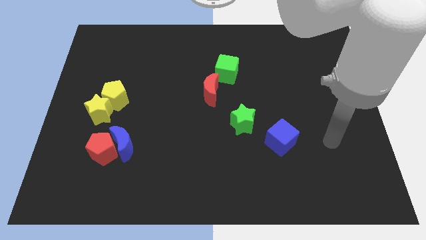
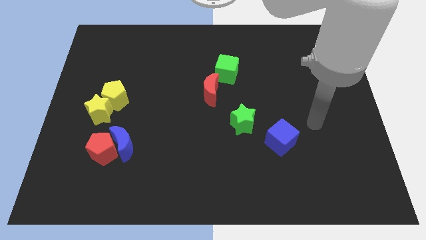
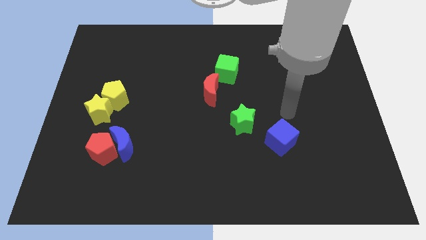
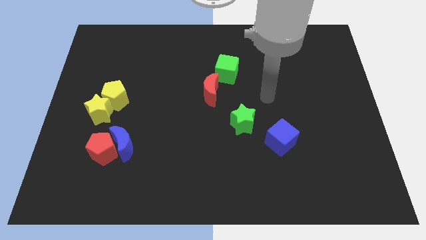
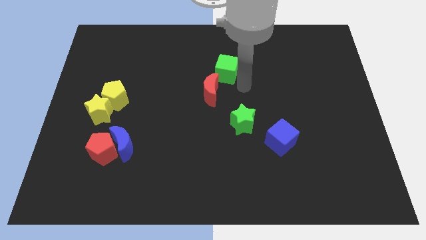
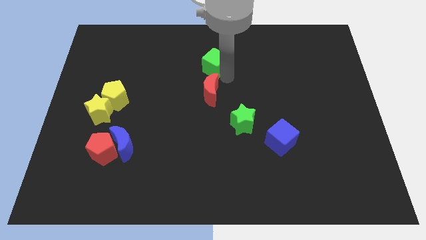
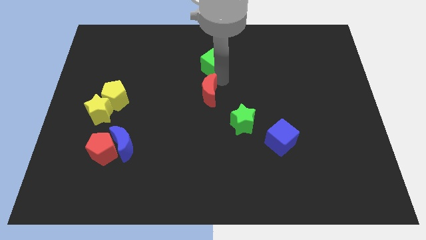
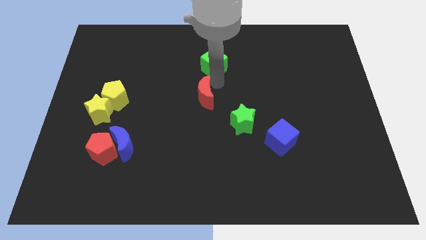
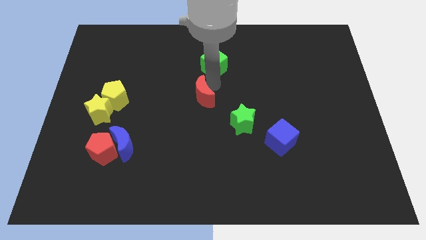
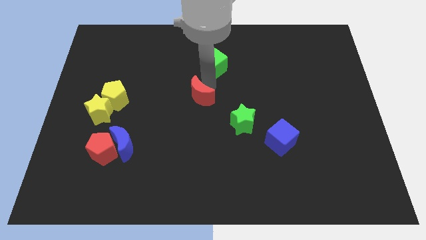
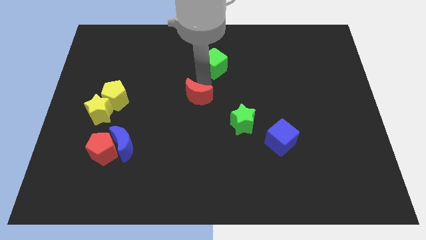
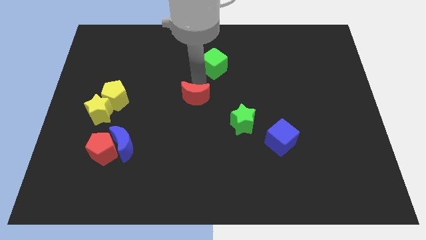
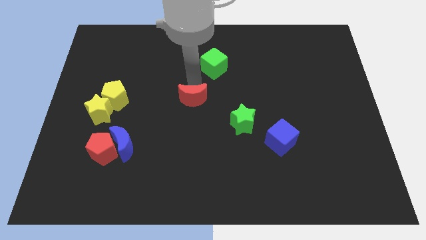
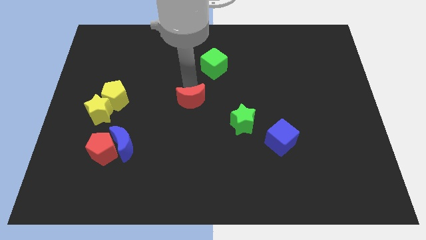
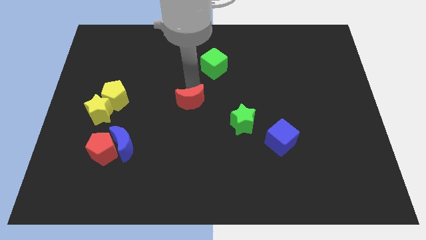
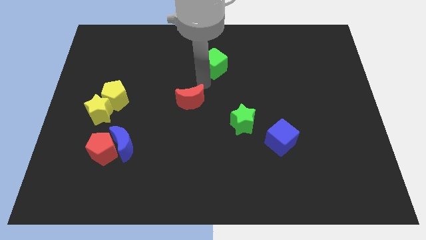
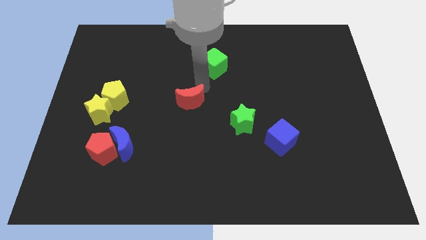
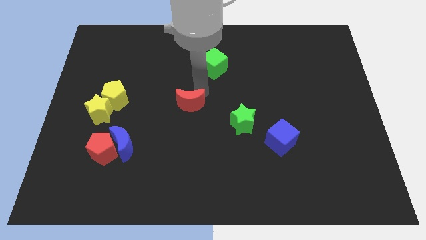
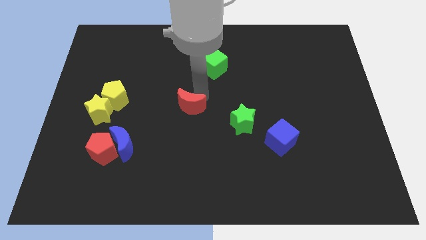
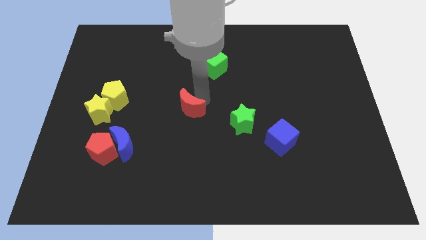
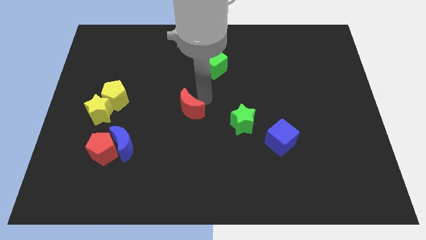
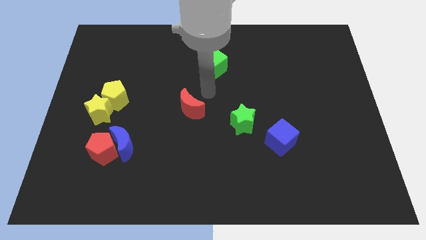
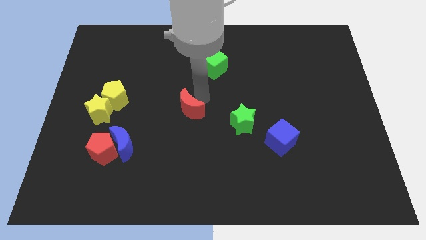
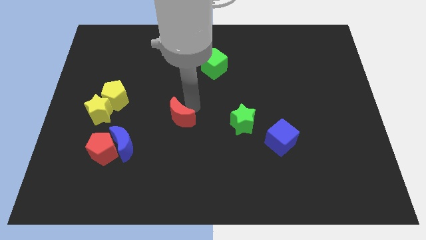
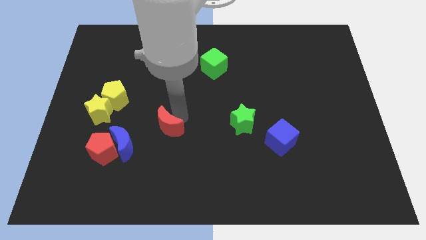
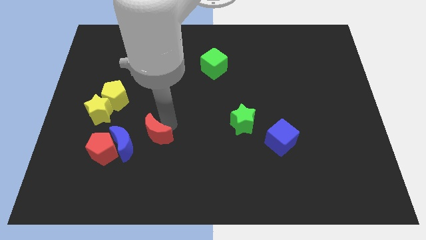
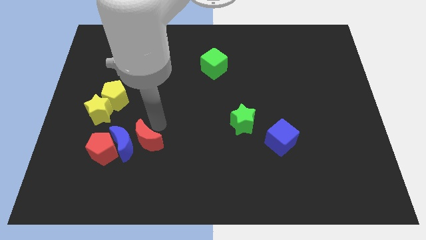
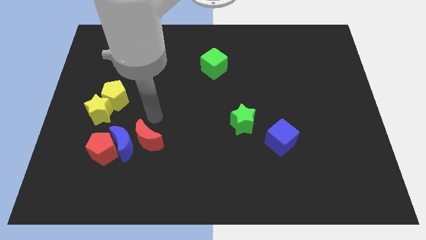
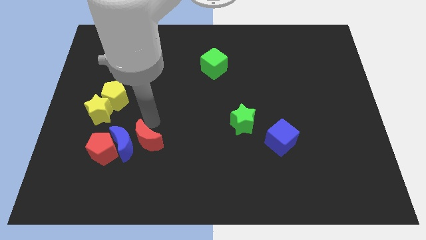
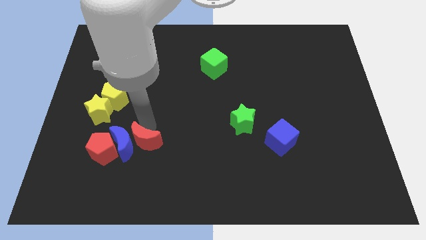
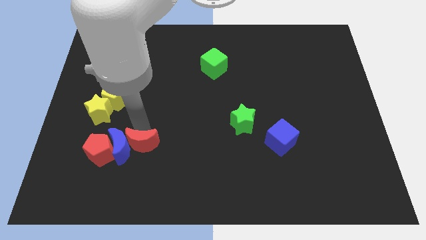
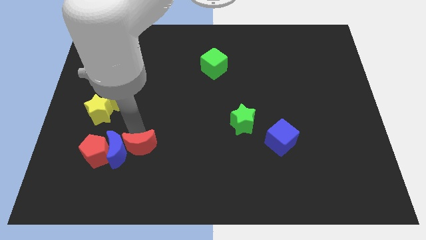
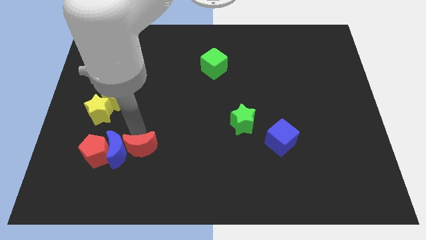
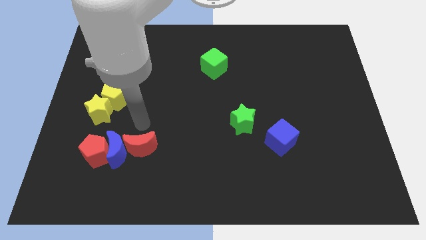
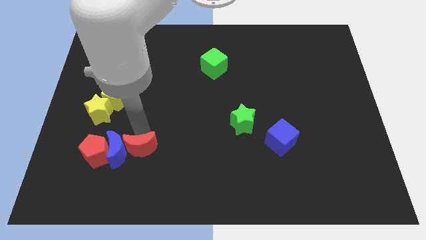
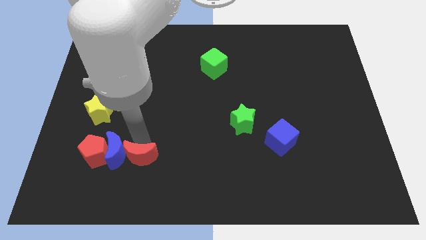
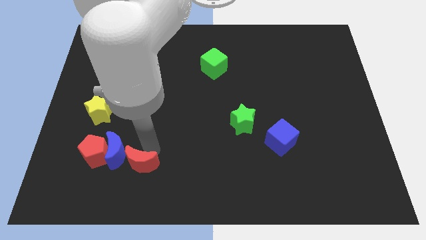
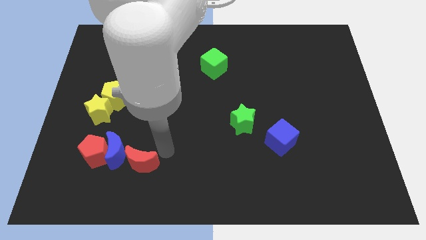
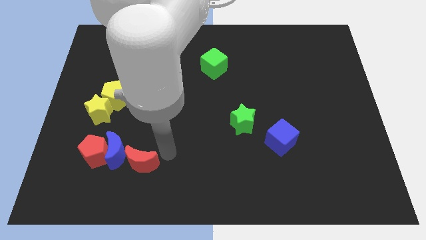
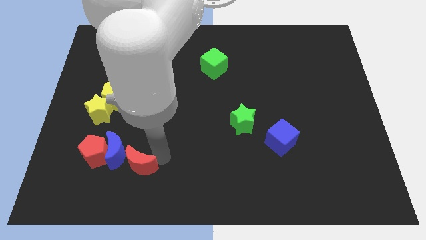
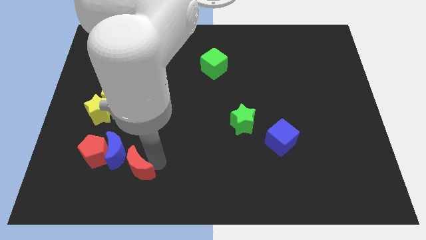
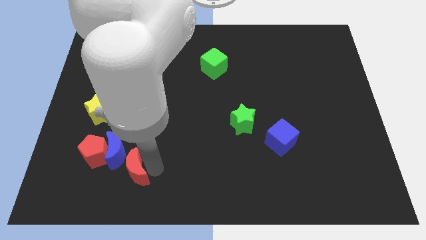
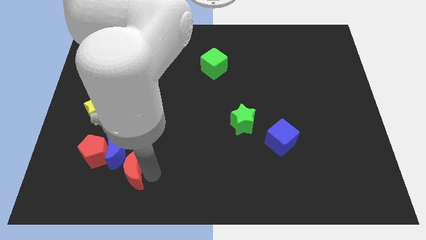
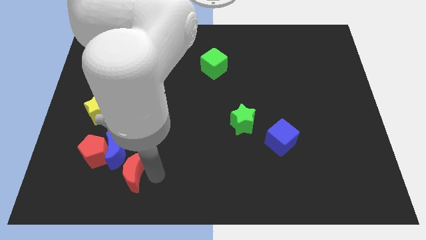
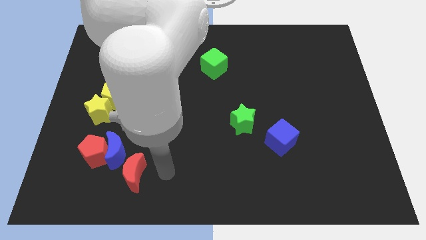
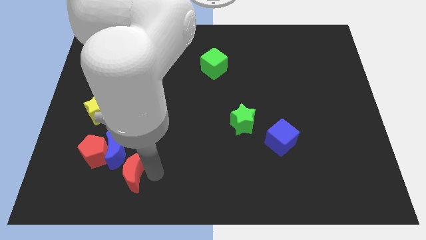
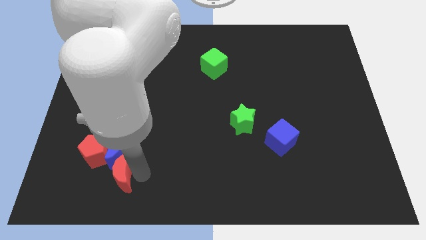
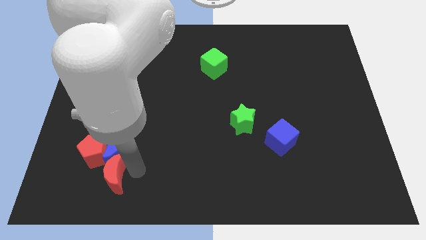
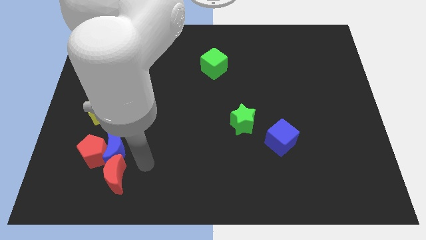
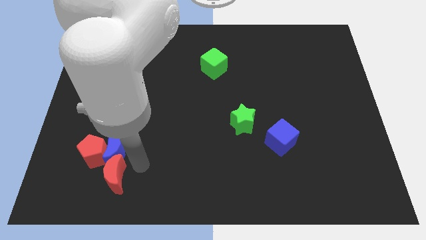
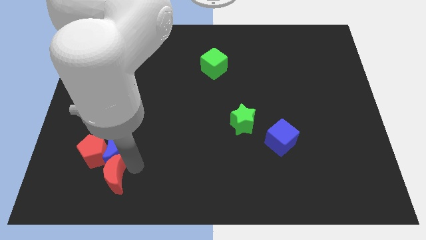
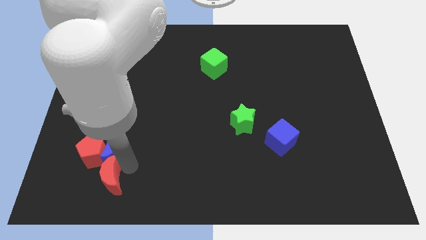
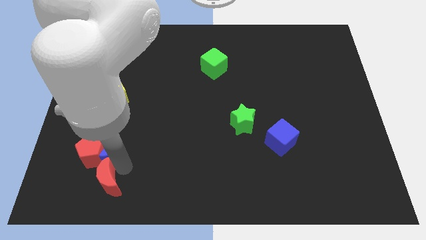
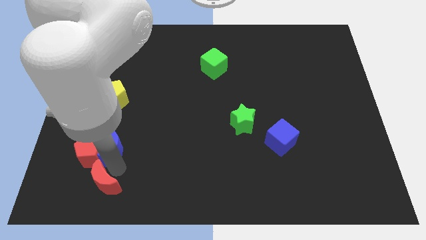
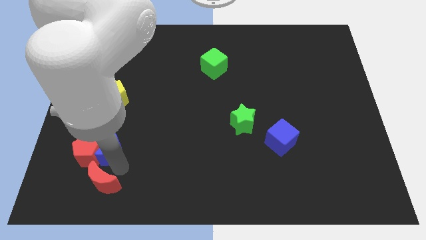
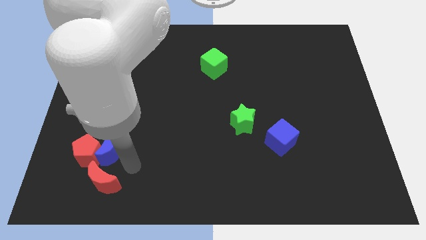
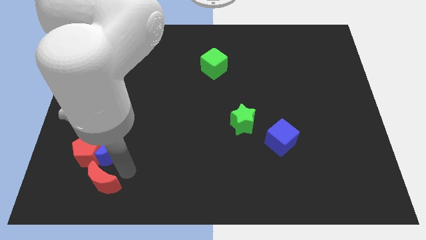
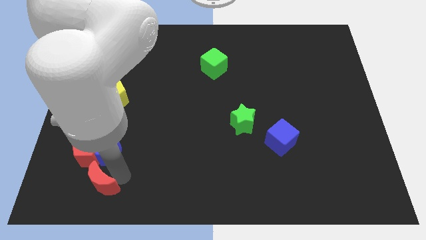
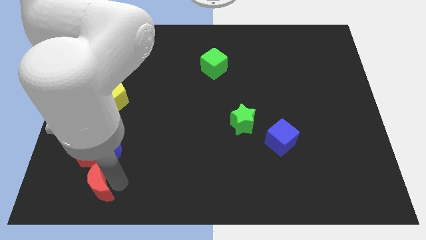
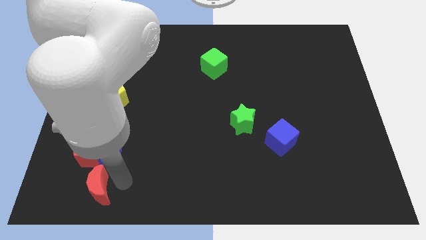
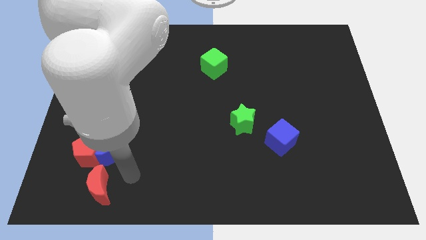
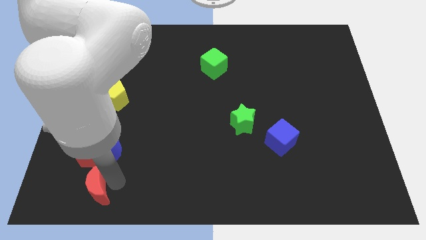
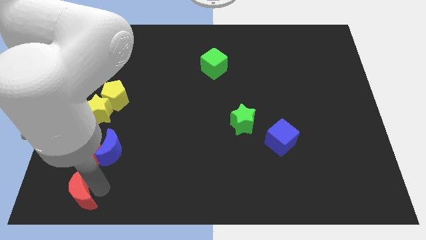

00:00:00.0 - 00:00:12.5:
move the red moon to the lower left corner

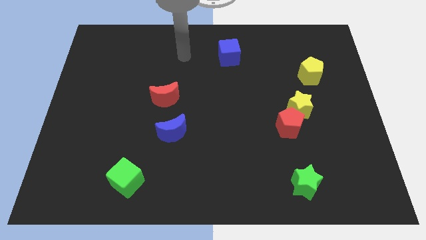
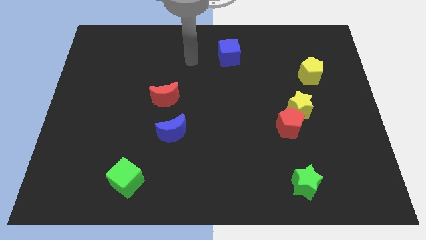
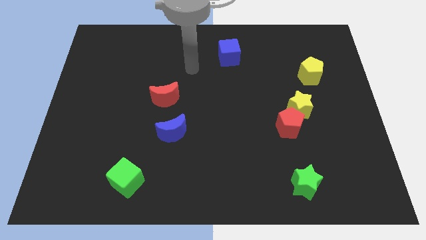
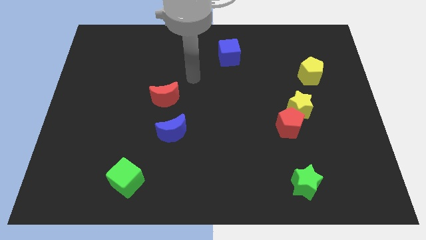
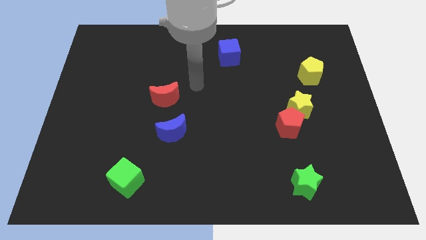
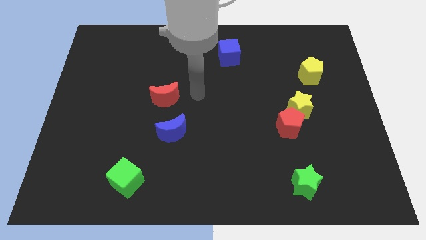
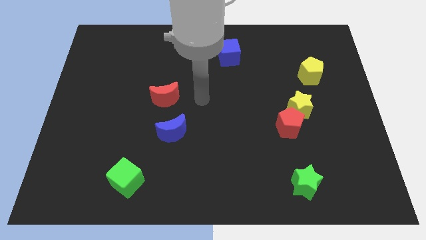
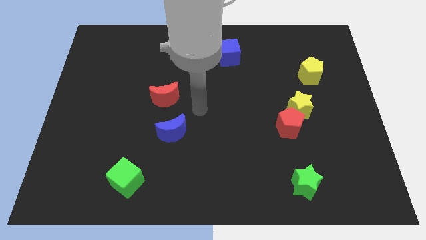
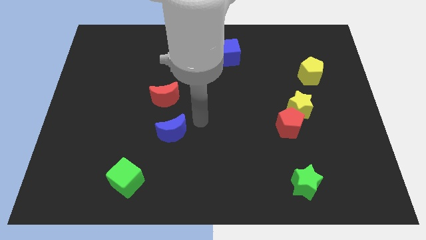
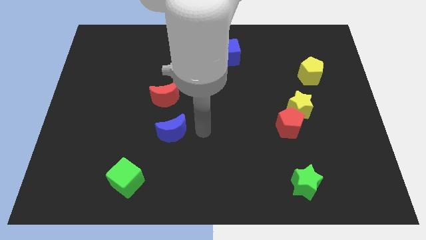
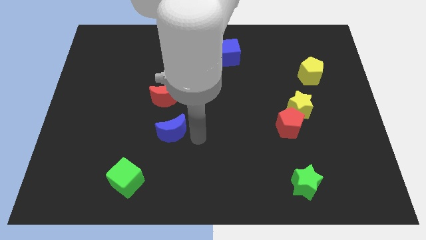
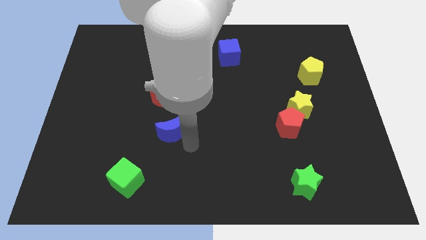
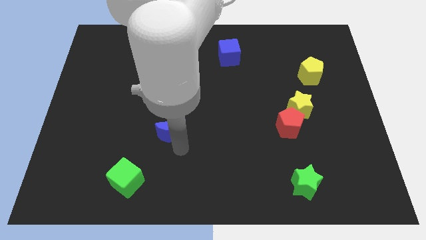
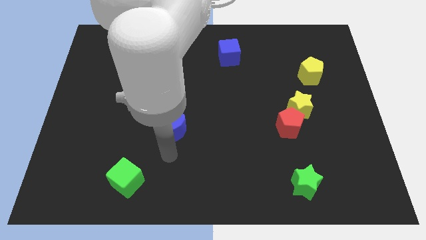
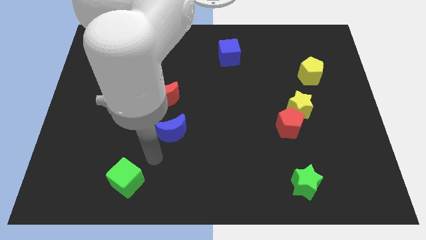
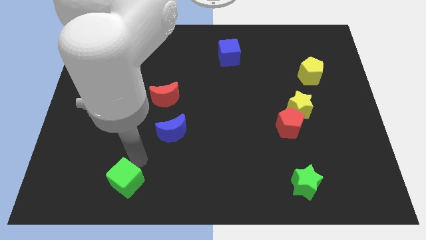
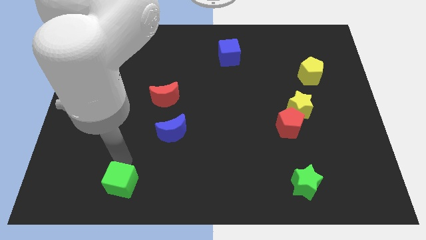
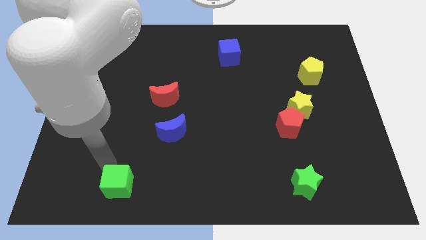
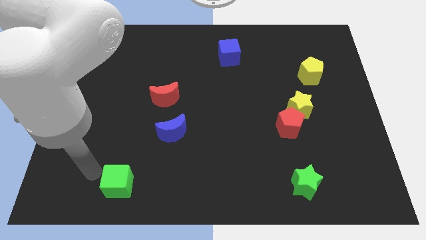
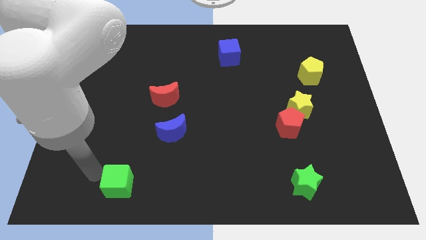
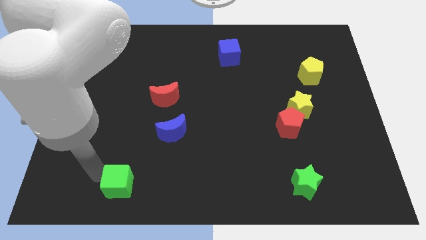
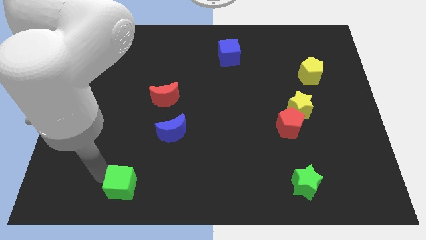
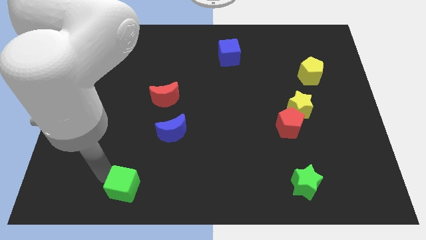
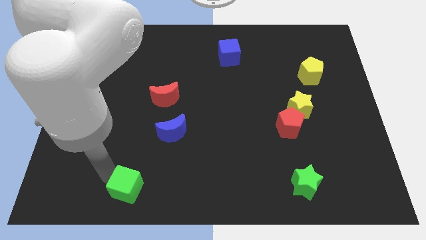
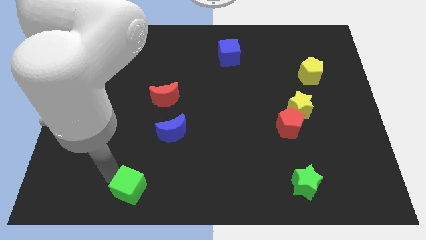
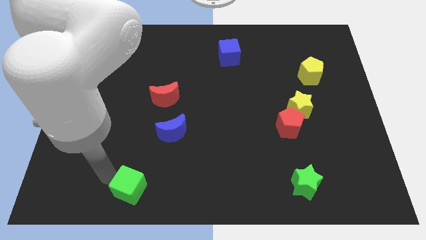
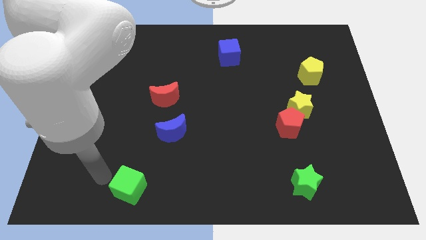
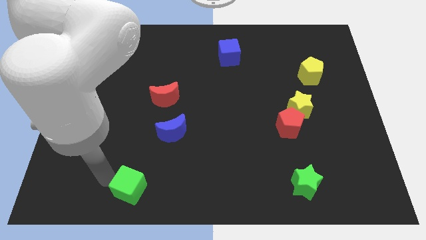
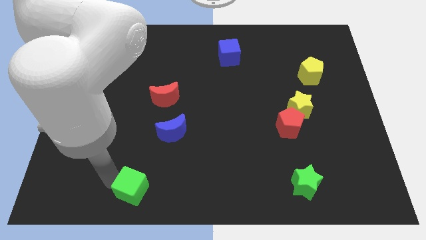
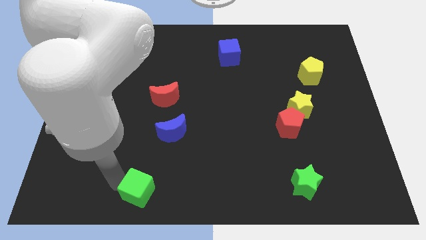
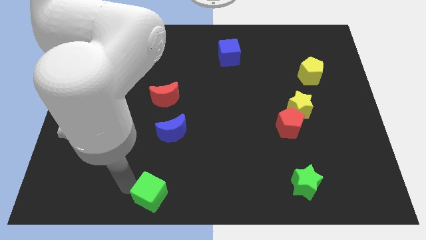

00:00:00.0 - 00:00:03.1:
push the green cube to the bottom side
